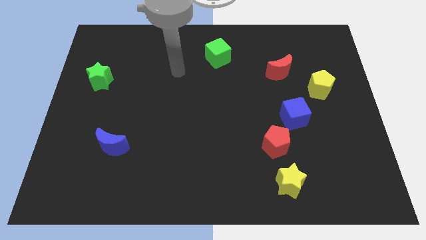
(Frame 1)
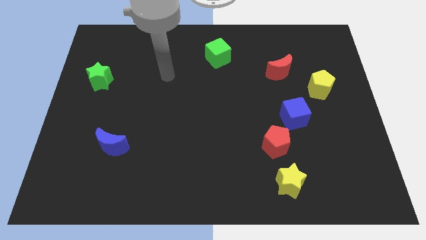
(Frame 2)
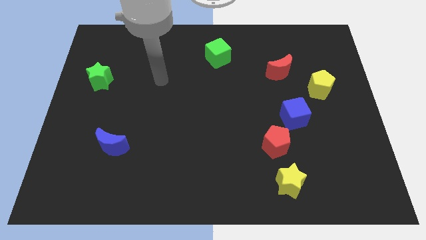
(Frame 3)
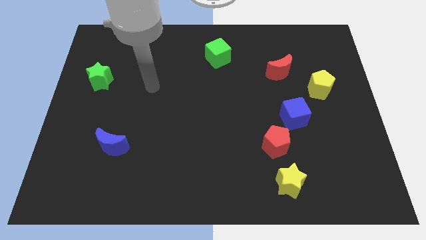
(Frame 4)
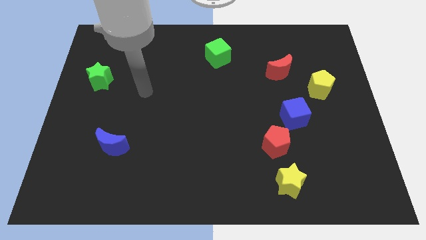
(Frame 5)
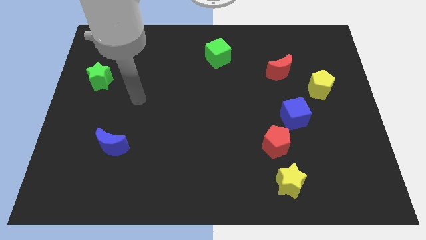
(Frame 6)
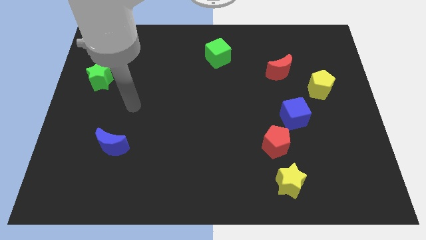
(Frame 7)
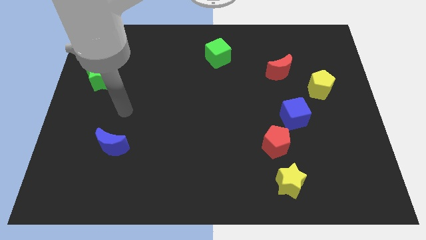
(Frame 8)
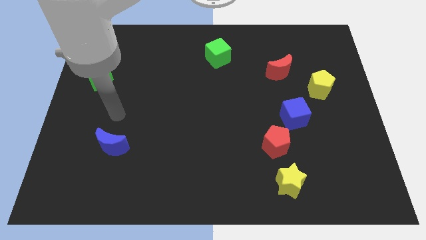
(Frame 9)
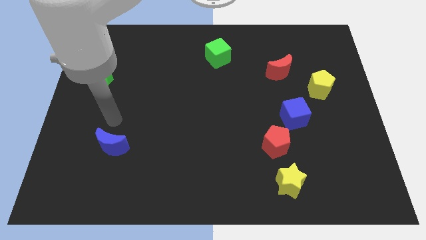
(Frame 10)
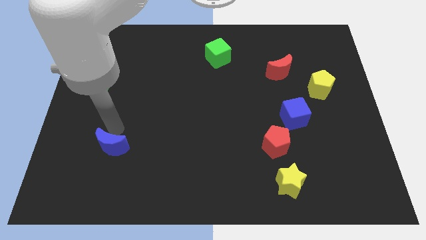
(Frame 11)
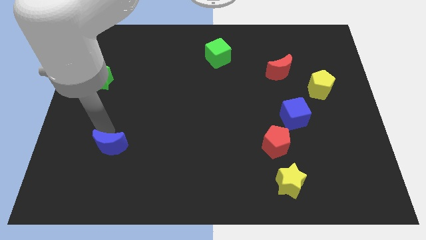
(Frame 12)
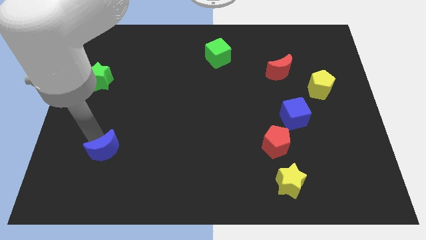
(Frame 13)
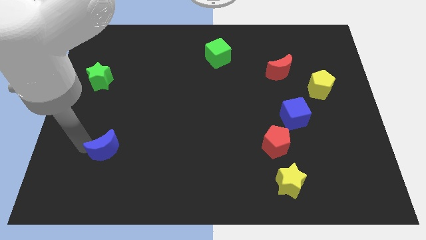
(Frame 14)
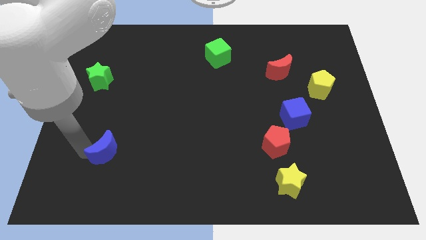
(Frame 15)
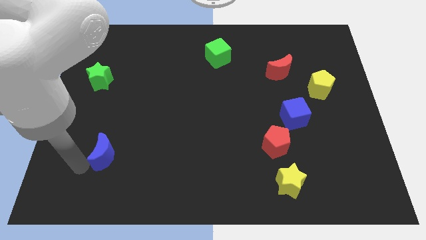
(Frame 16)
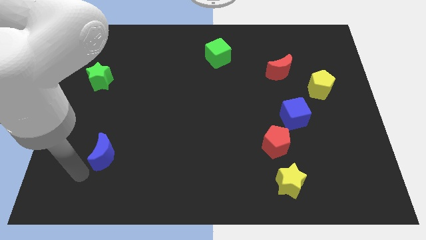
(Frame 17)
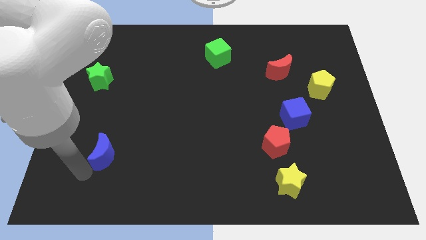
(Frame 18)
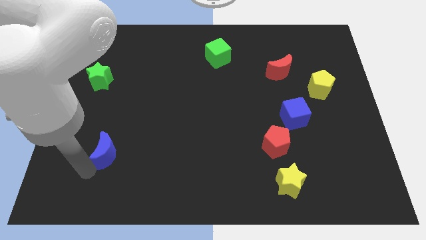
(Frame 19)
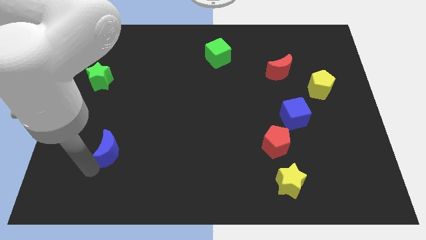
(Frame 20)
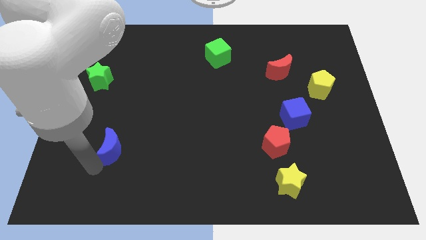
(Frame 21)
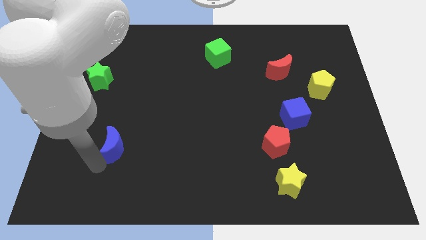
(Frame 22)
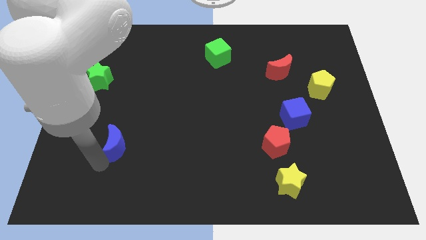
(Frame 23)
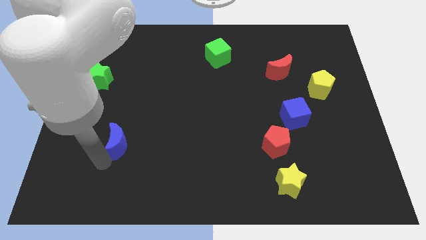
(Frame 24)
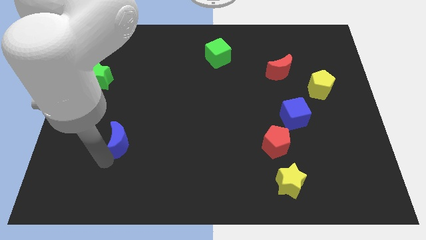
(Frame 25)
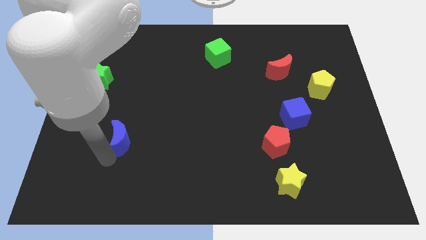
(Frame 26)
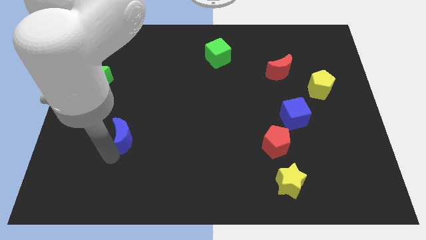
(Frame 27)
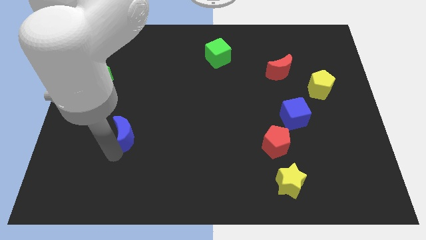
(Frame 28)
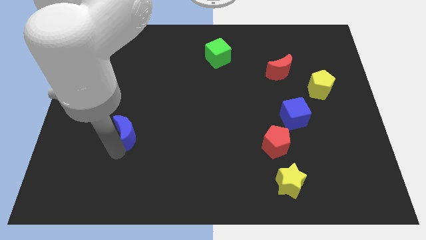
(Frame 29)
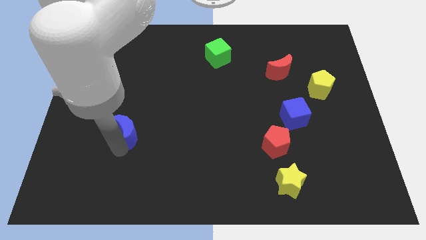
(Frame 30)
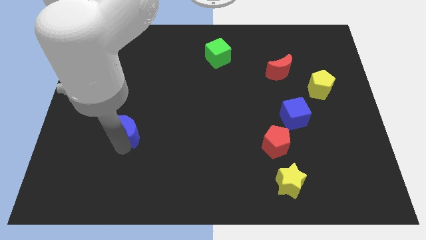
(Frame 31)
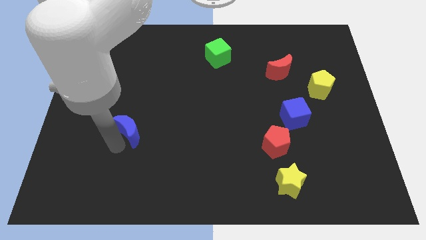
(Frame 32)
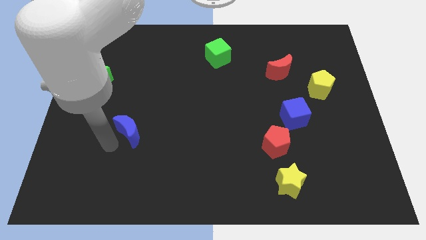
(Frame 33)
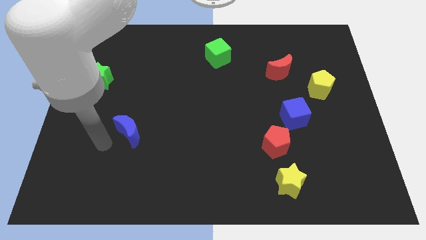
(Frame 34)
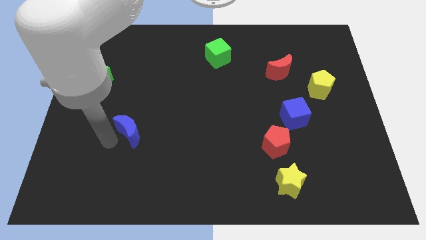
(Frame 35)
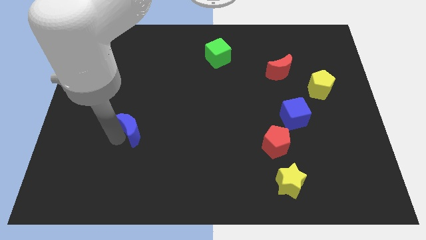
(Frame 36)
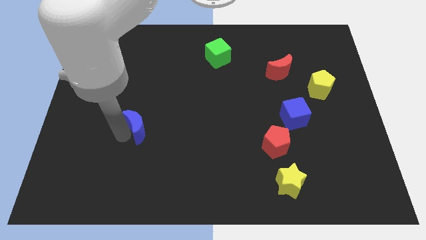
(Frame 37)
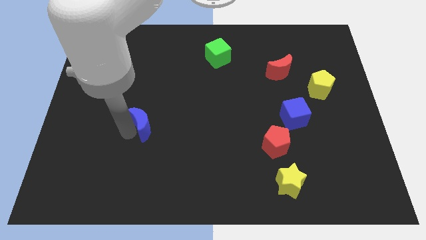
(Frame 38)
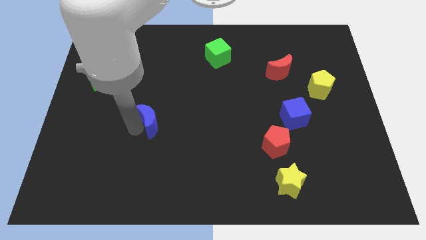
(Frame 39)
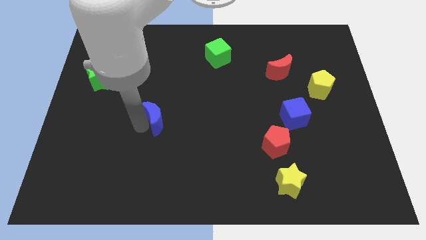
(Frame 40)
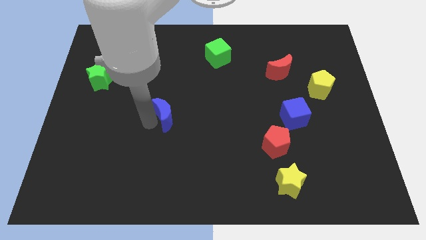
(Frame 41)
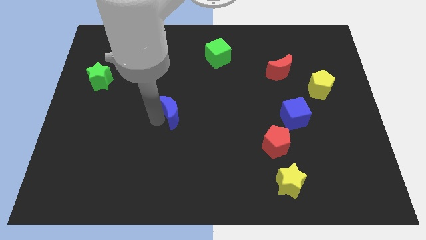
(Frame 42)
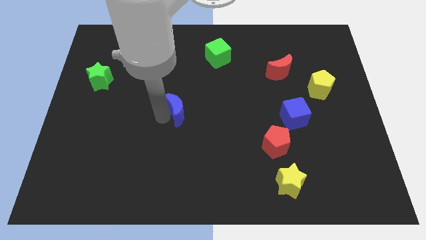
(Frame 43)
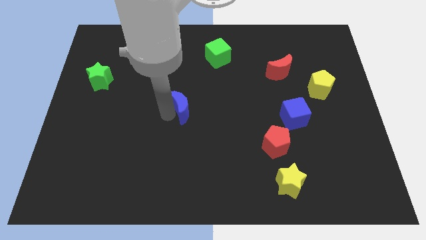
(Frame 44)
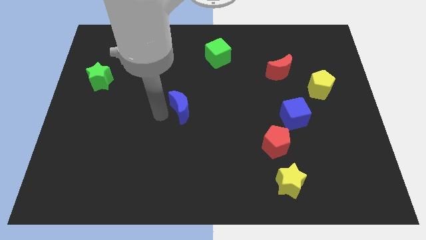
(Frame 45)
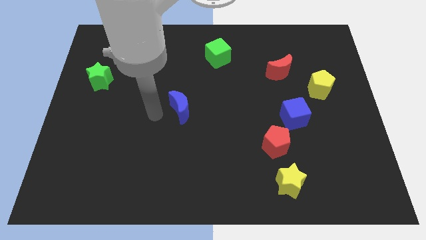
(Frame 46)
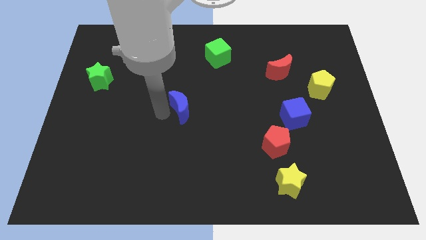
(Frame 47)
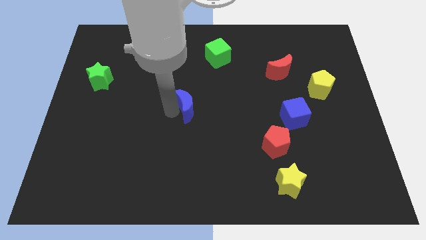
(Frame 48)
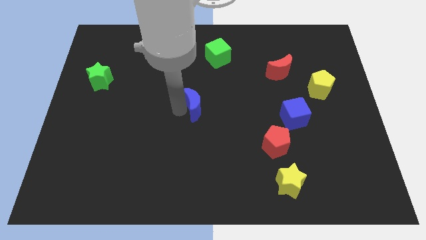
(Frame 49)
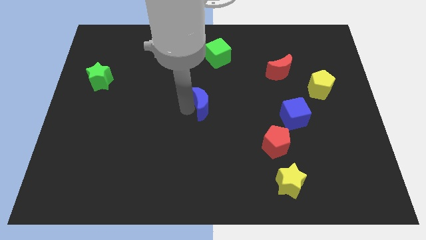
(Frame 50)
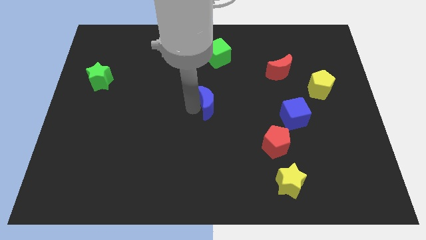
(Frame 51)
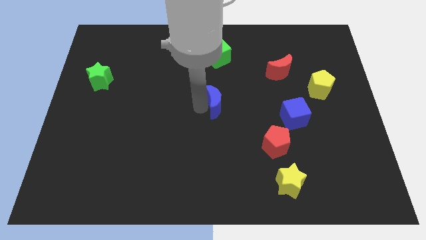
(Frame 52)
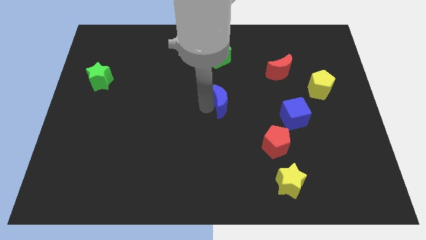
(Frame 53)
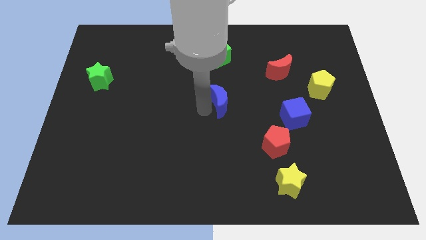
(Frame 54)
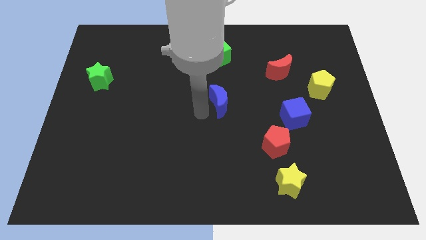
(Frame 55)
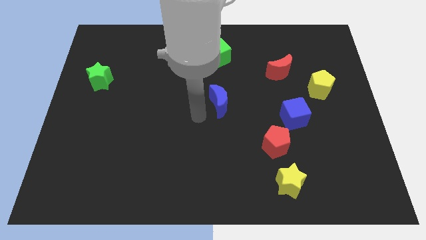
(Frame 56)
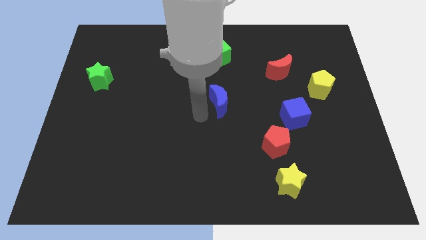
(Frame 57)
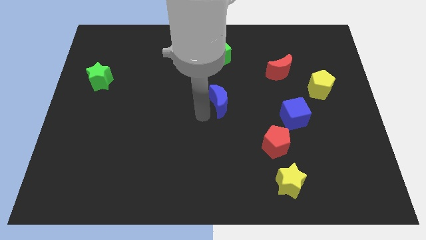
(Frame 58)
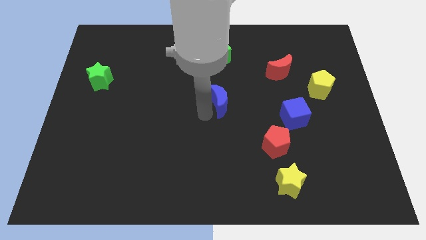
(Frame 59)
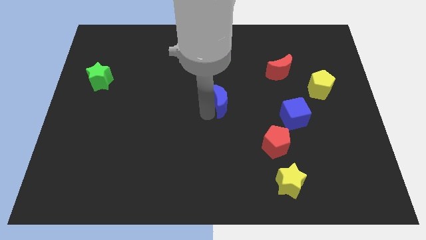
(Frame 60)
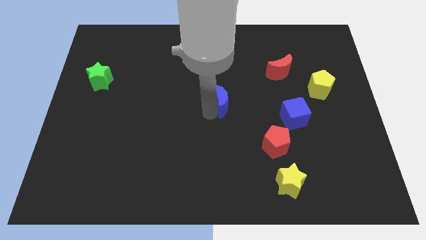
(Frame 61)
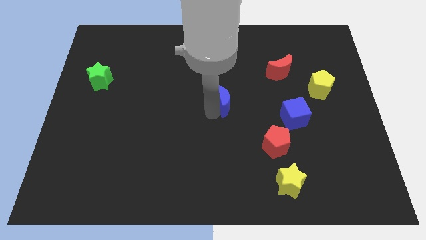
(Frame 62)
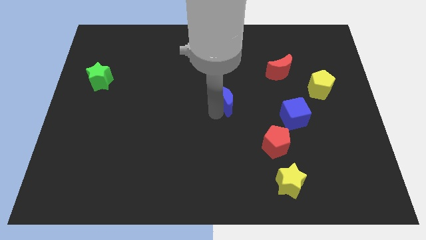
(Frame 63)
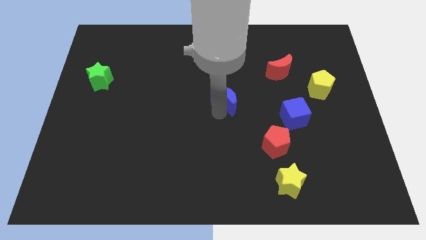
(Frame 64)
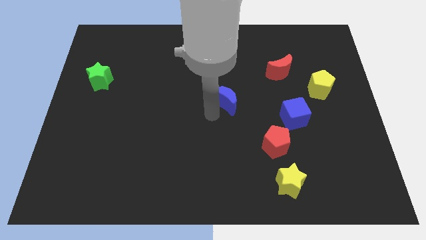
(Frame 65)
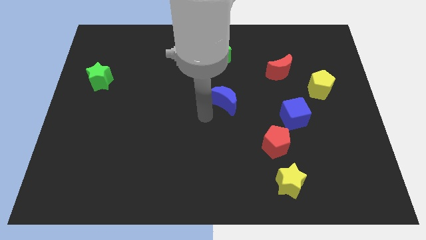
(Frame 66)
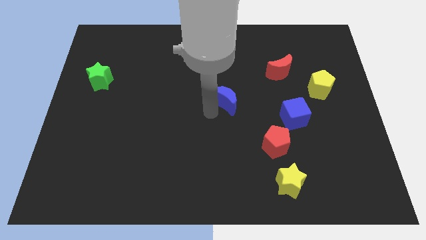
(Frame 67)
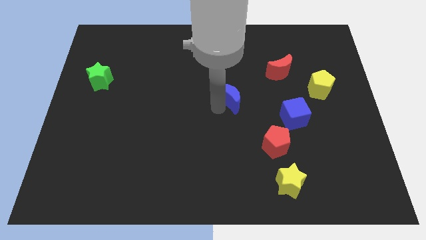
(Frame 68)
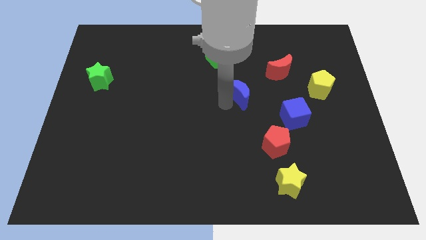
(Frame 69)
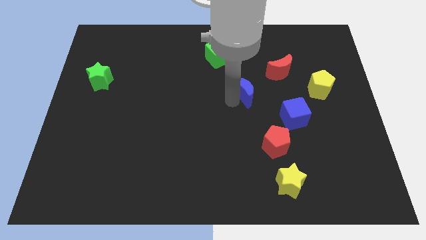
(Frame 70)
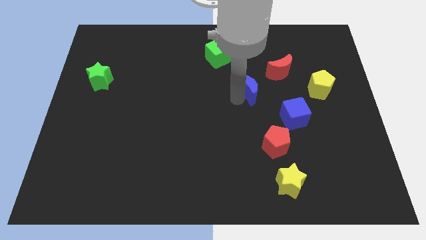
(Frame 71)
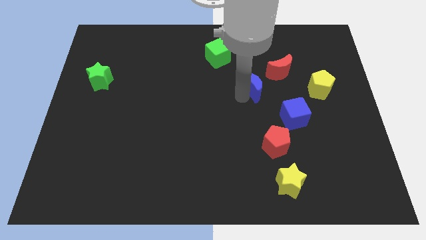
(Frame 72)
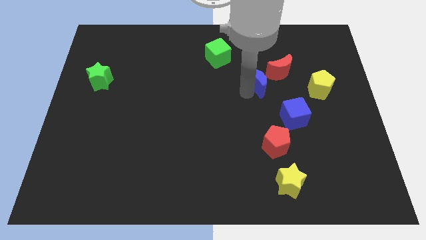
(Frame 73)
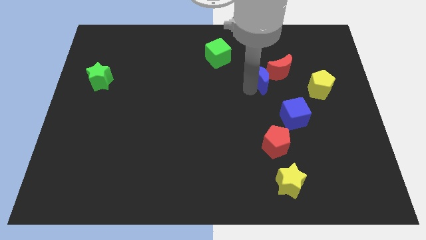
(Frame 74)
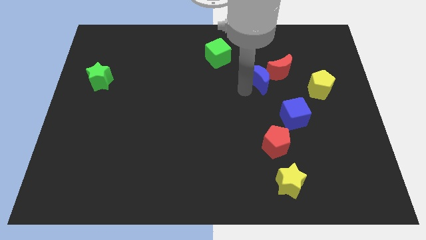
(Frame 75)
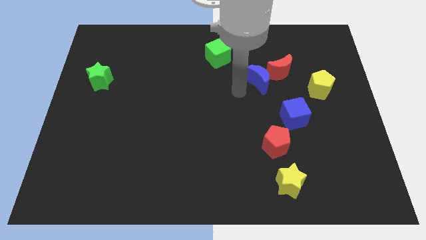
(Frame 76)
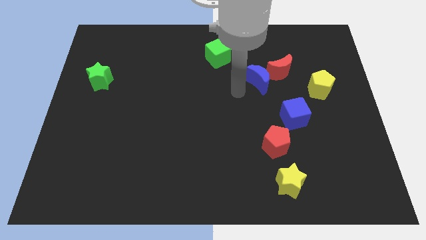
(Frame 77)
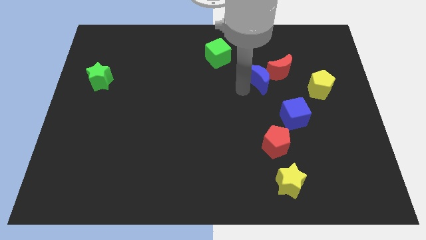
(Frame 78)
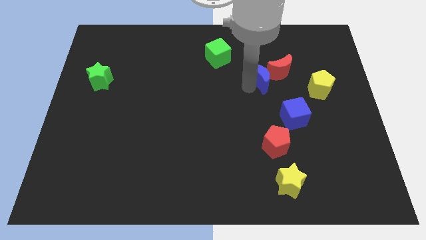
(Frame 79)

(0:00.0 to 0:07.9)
push the blue moon next to the red moon
